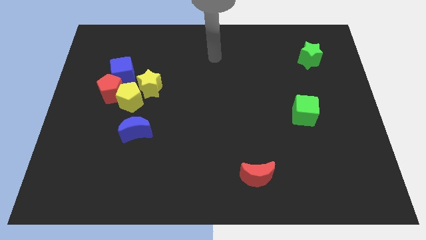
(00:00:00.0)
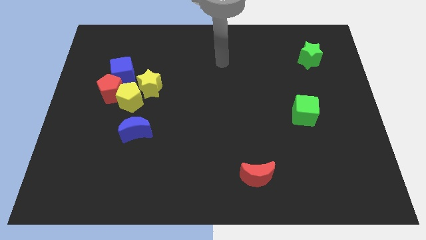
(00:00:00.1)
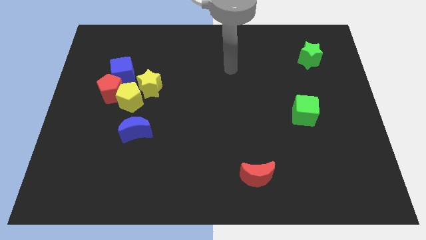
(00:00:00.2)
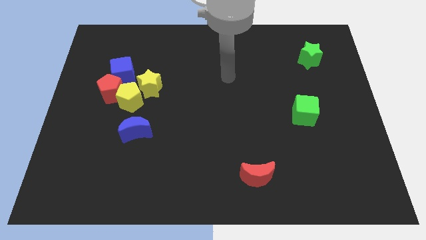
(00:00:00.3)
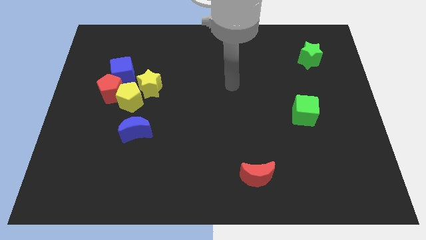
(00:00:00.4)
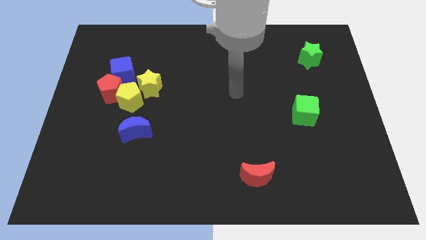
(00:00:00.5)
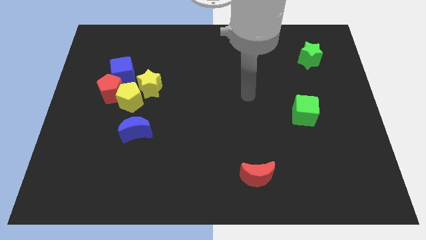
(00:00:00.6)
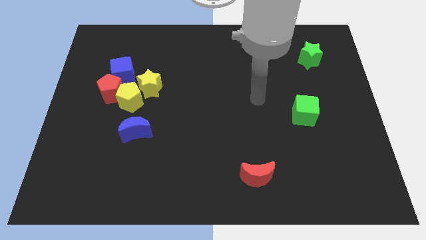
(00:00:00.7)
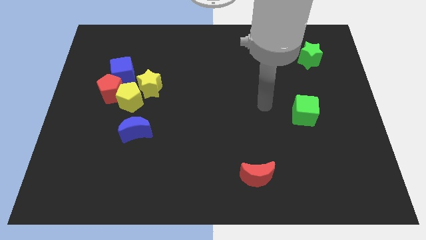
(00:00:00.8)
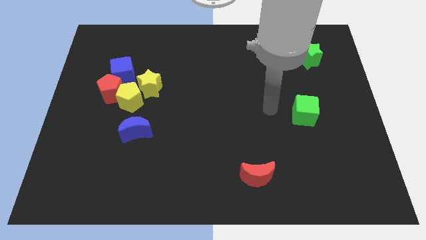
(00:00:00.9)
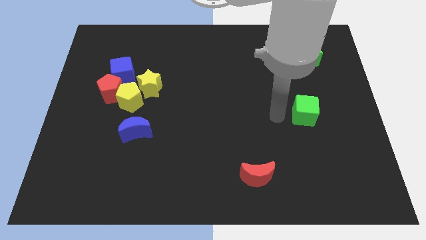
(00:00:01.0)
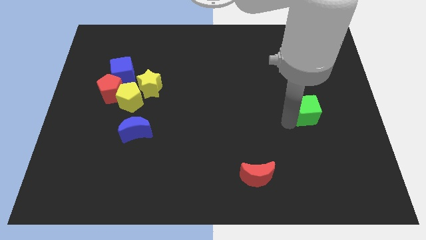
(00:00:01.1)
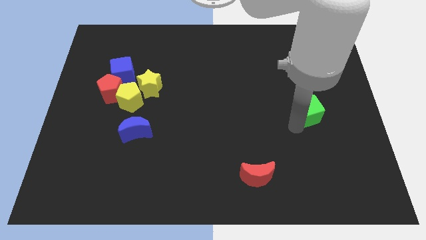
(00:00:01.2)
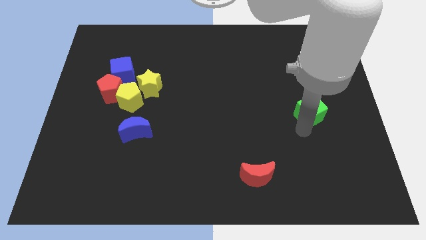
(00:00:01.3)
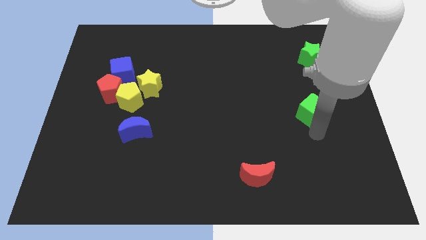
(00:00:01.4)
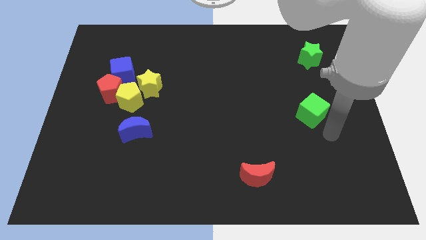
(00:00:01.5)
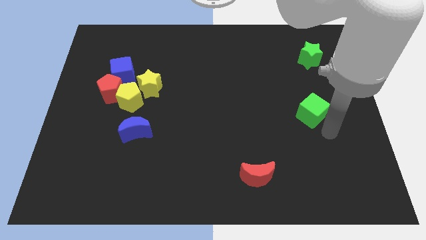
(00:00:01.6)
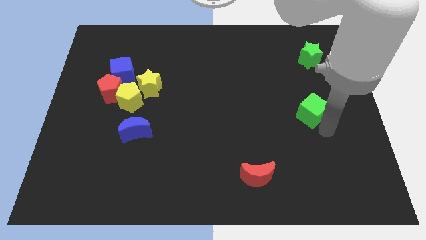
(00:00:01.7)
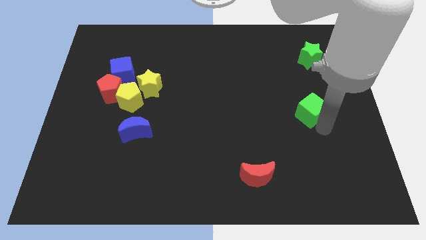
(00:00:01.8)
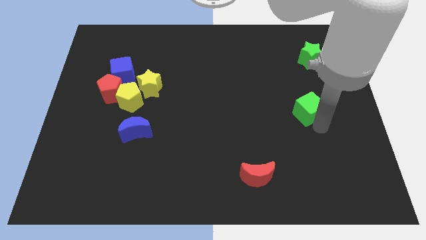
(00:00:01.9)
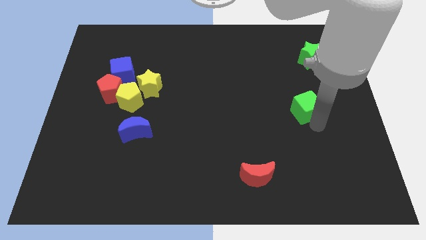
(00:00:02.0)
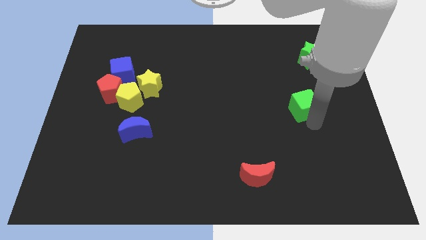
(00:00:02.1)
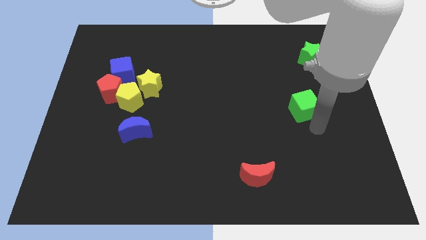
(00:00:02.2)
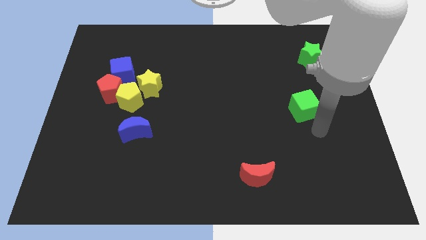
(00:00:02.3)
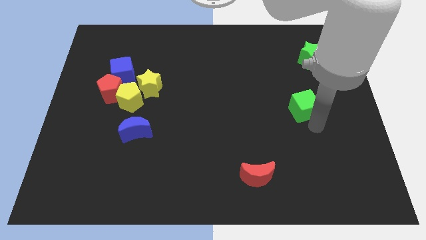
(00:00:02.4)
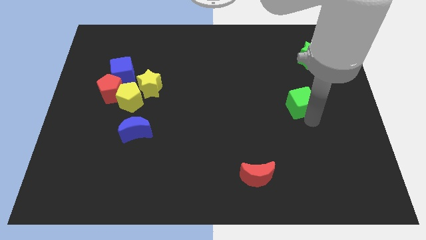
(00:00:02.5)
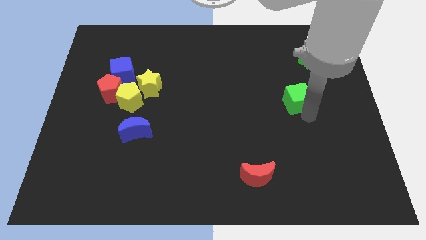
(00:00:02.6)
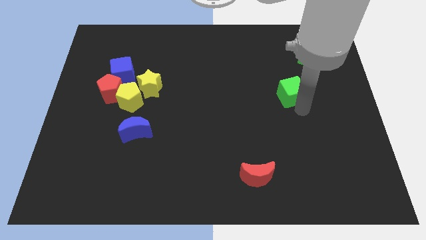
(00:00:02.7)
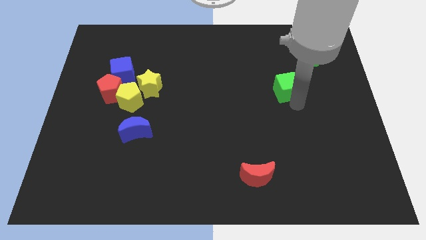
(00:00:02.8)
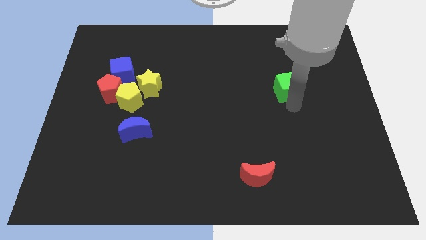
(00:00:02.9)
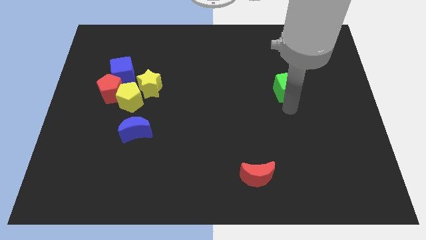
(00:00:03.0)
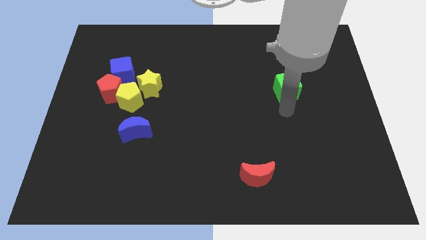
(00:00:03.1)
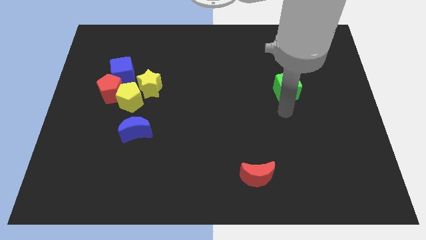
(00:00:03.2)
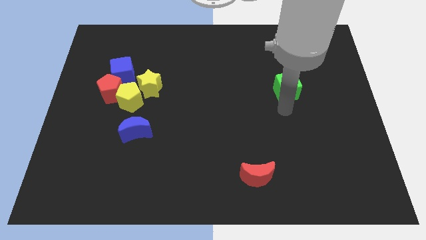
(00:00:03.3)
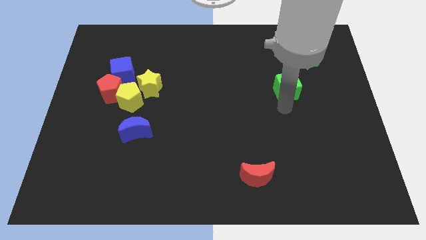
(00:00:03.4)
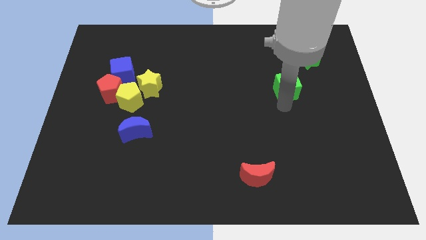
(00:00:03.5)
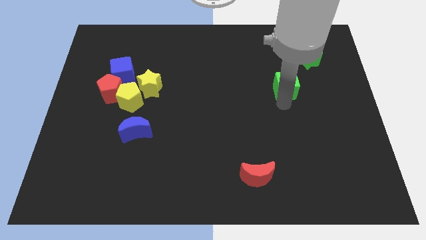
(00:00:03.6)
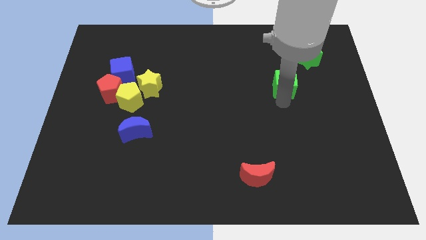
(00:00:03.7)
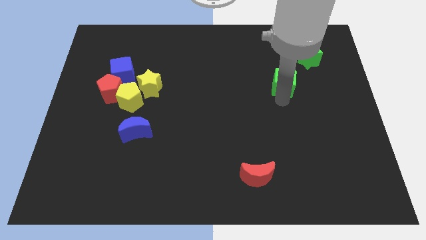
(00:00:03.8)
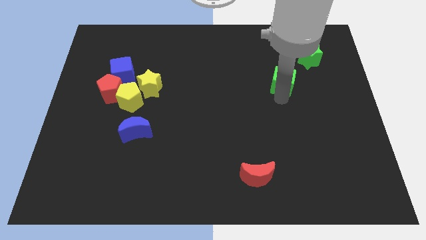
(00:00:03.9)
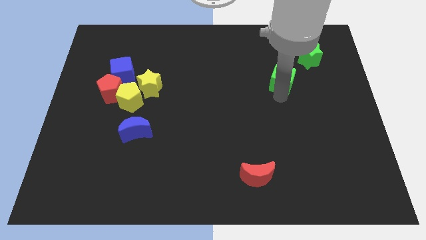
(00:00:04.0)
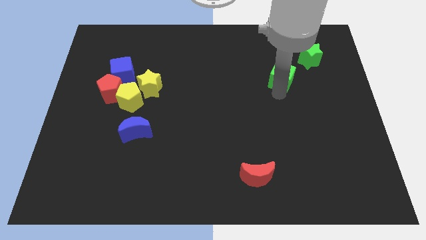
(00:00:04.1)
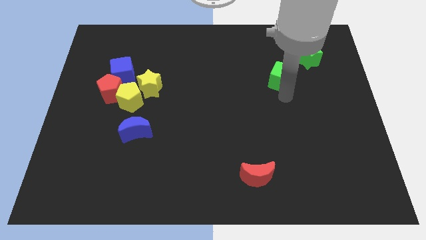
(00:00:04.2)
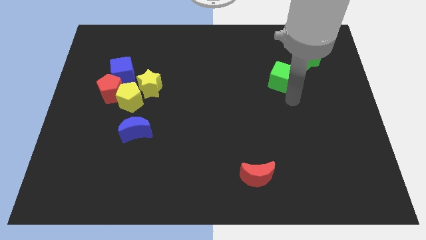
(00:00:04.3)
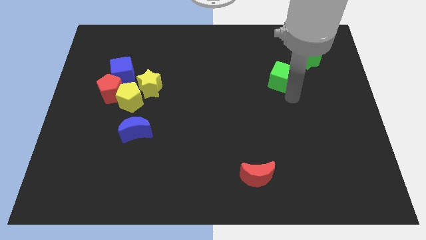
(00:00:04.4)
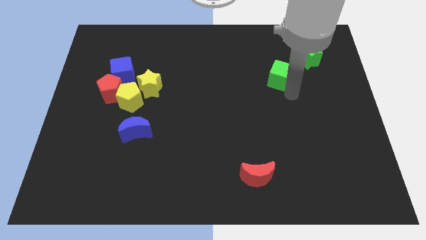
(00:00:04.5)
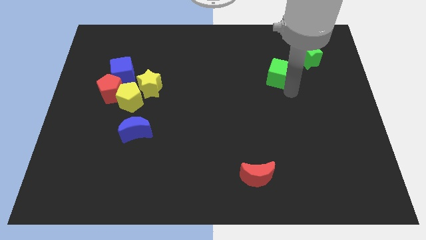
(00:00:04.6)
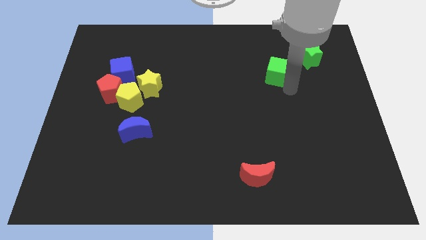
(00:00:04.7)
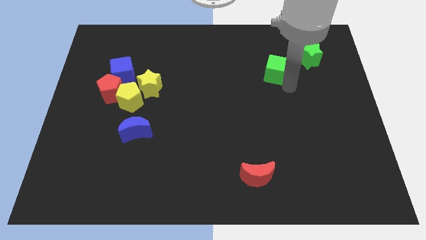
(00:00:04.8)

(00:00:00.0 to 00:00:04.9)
put the green cube just left of the green star

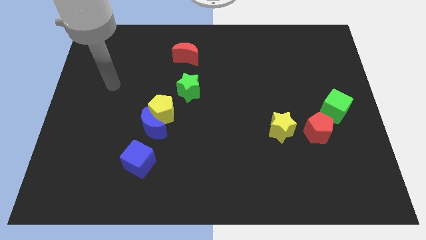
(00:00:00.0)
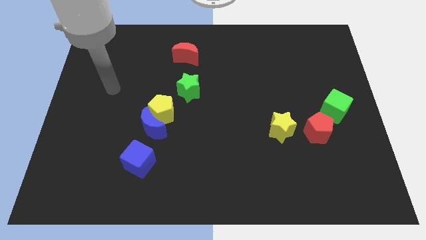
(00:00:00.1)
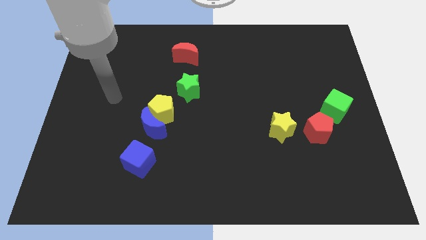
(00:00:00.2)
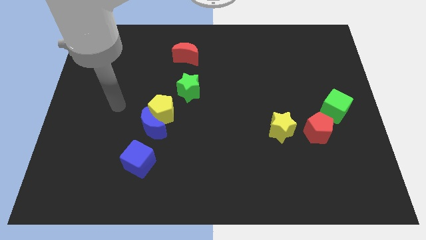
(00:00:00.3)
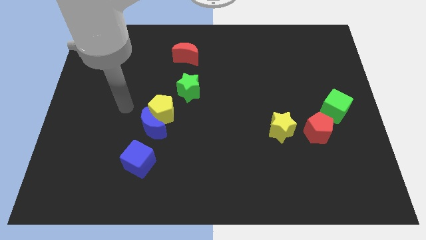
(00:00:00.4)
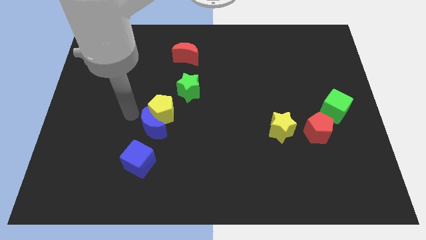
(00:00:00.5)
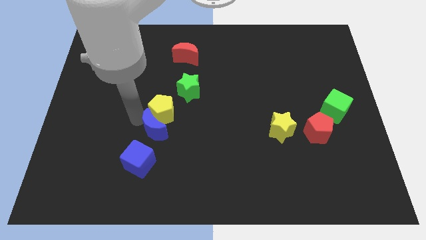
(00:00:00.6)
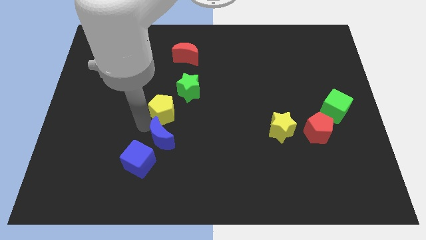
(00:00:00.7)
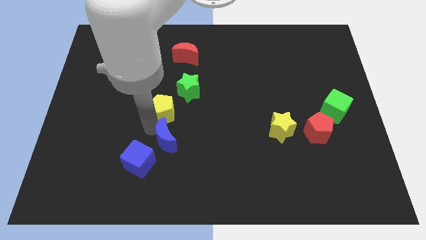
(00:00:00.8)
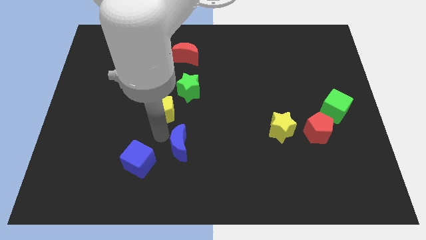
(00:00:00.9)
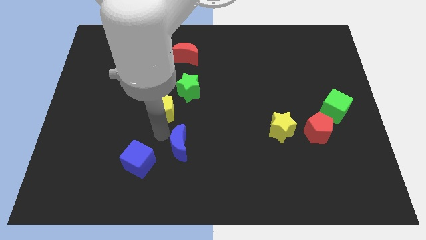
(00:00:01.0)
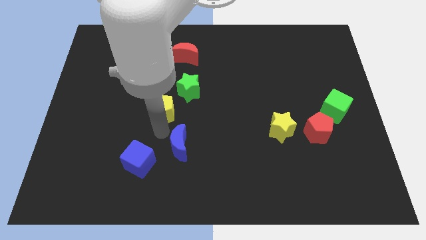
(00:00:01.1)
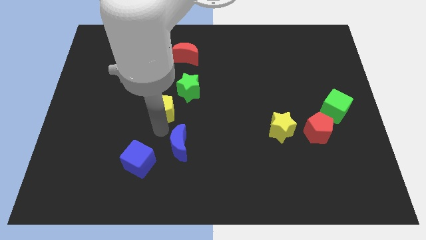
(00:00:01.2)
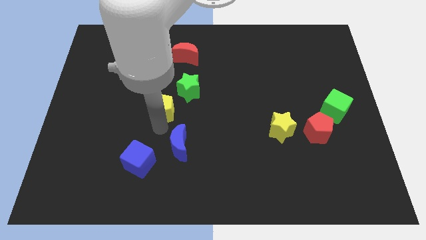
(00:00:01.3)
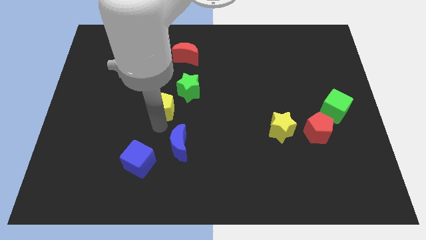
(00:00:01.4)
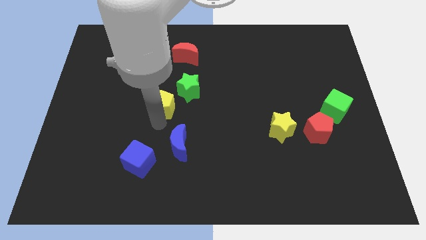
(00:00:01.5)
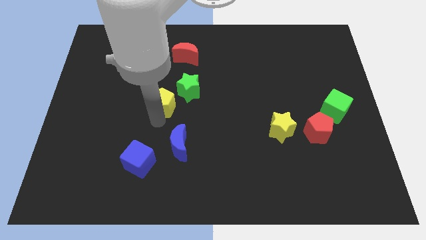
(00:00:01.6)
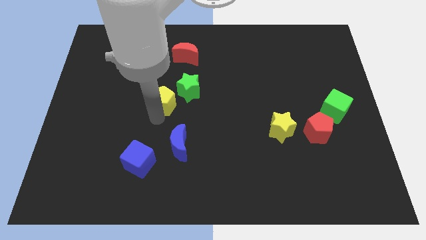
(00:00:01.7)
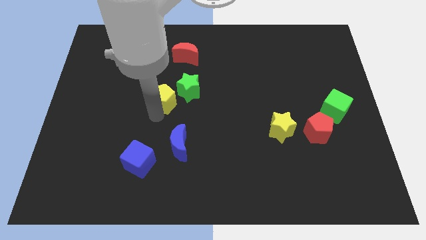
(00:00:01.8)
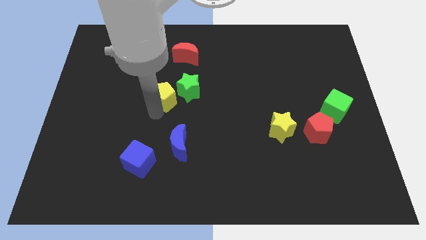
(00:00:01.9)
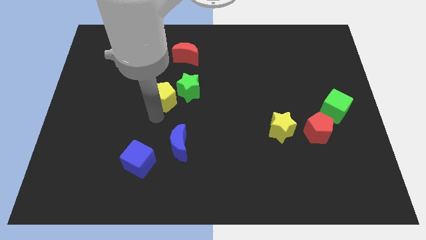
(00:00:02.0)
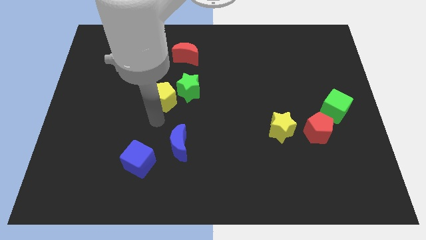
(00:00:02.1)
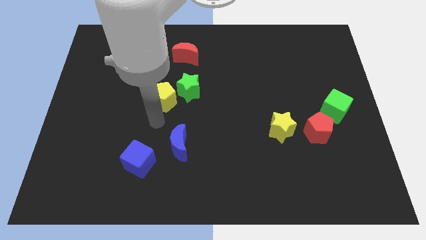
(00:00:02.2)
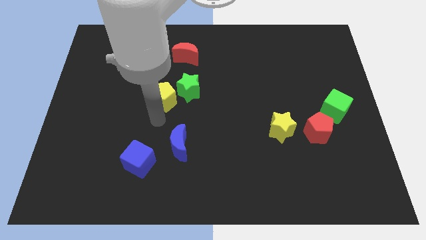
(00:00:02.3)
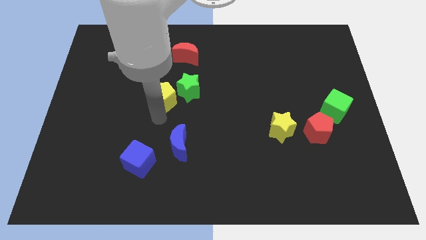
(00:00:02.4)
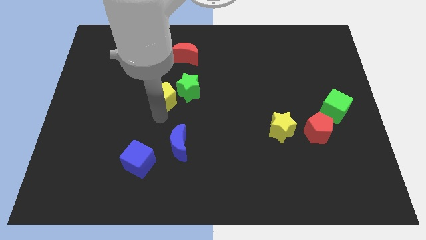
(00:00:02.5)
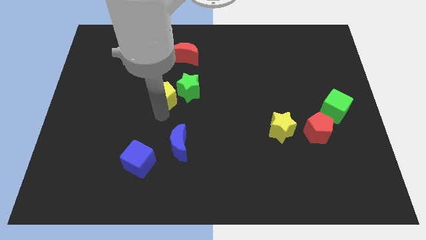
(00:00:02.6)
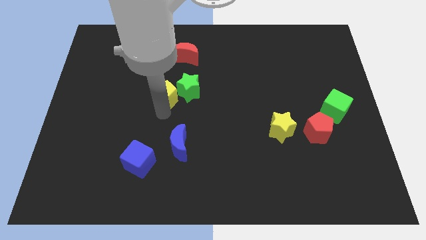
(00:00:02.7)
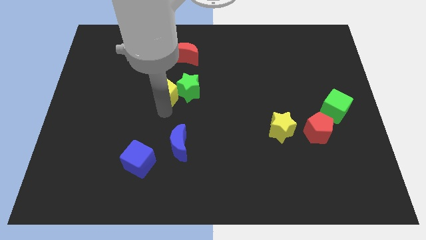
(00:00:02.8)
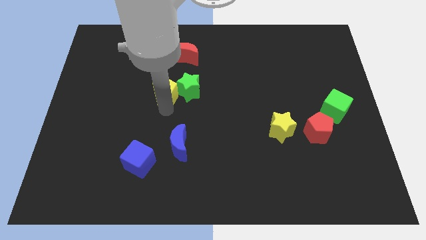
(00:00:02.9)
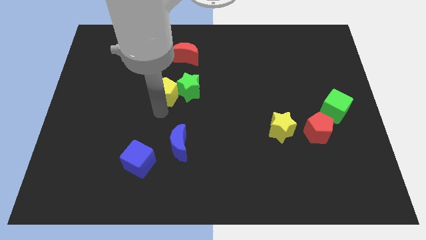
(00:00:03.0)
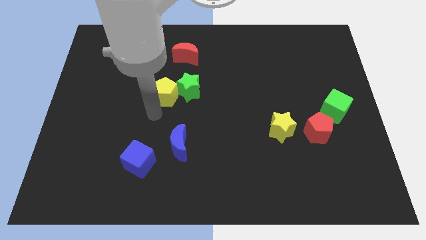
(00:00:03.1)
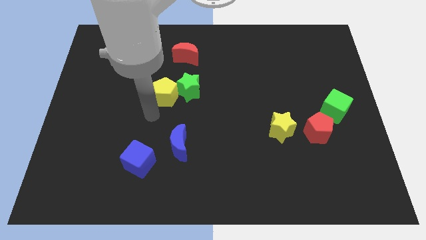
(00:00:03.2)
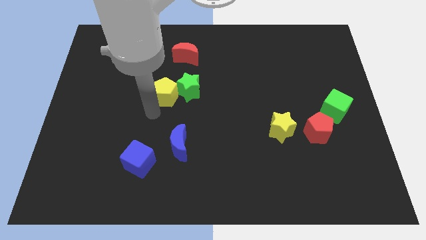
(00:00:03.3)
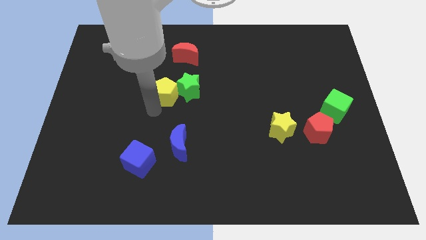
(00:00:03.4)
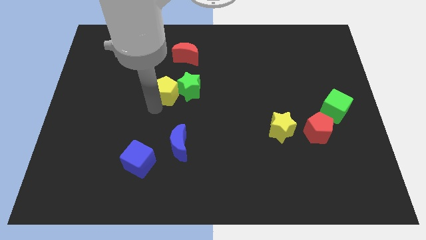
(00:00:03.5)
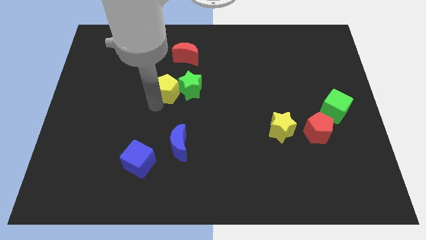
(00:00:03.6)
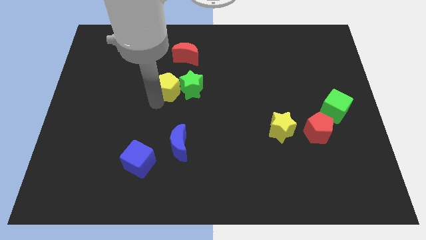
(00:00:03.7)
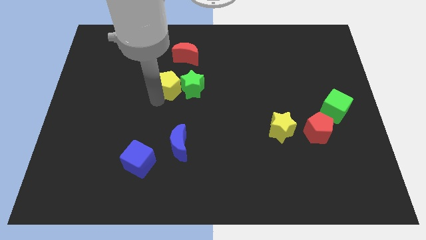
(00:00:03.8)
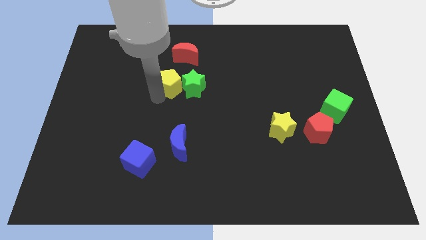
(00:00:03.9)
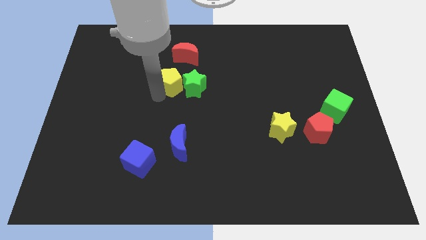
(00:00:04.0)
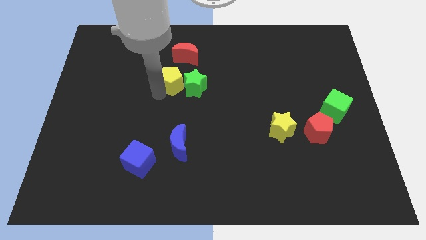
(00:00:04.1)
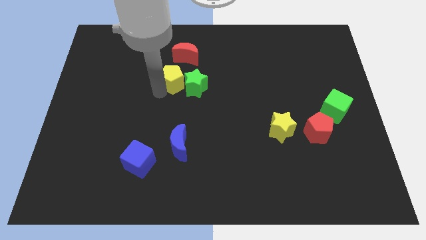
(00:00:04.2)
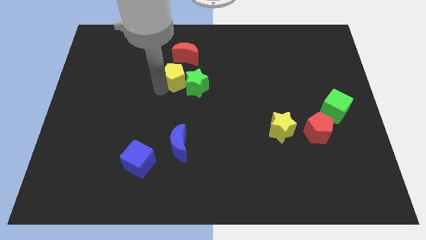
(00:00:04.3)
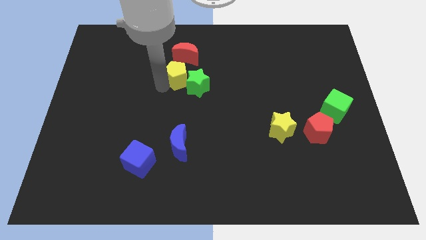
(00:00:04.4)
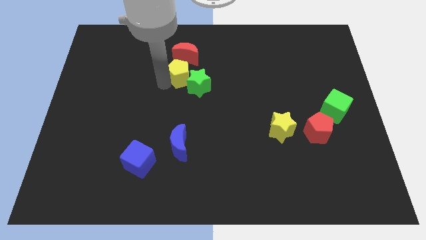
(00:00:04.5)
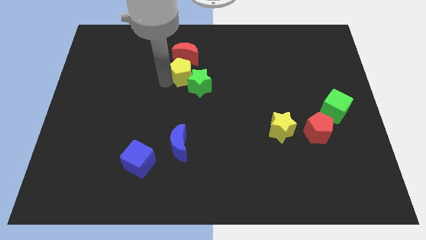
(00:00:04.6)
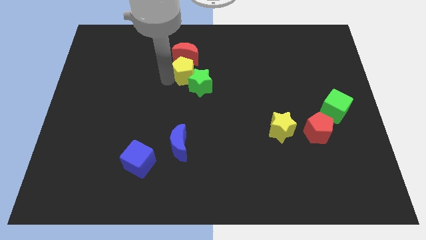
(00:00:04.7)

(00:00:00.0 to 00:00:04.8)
move the yellow pentagon to the bottom right side of the red moon
